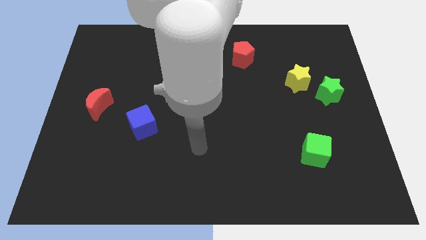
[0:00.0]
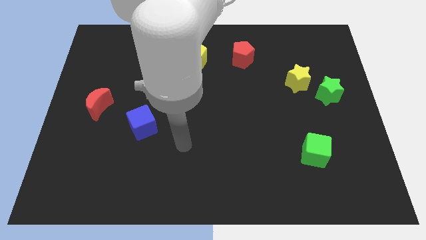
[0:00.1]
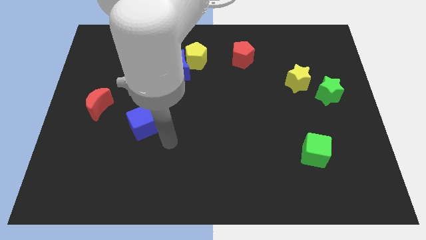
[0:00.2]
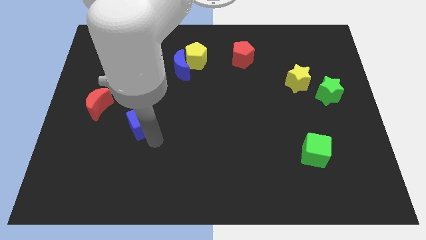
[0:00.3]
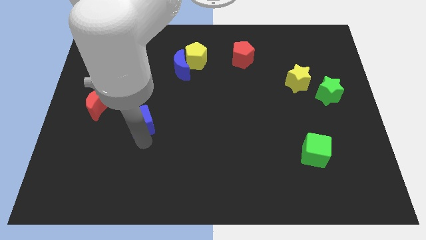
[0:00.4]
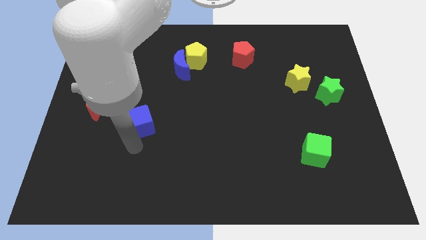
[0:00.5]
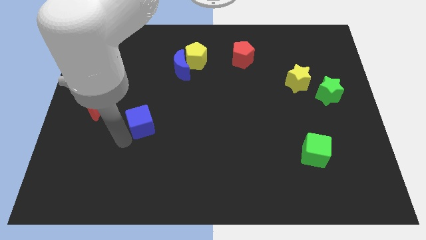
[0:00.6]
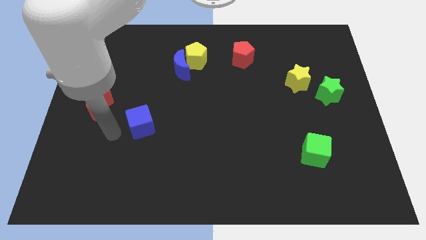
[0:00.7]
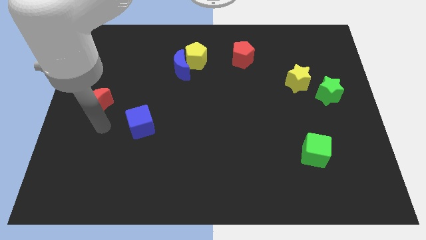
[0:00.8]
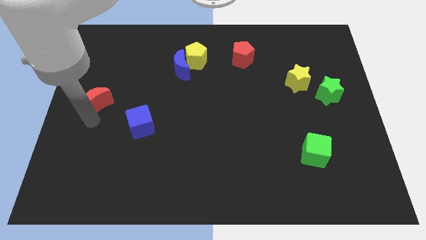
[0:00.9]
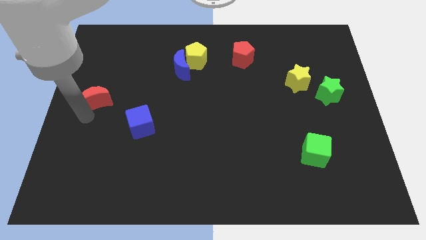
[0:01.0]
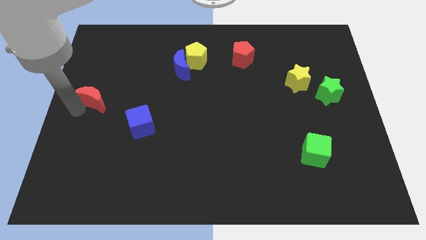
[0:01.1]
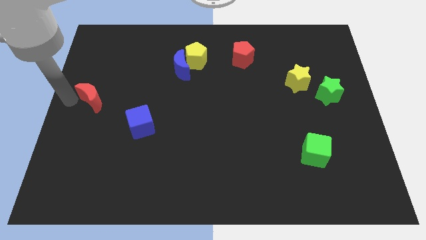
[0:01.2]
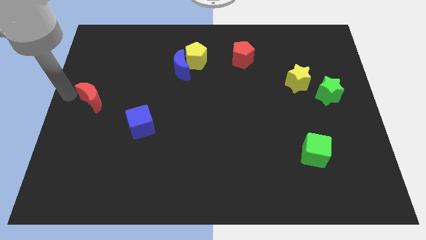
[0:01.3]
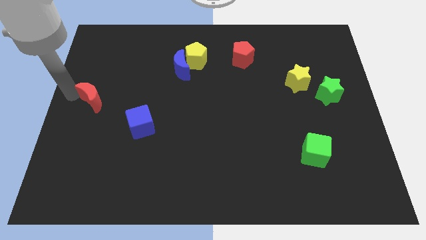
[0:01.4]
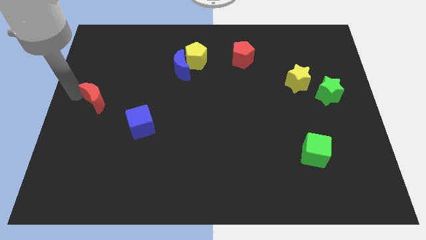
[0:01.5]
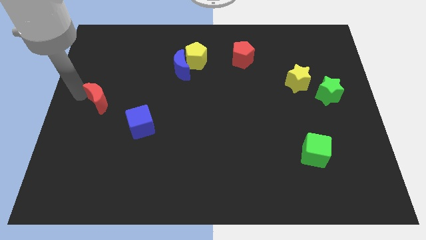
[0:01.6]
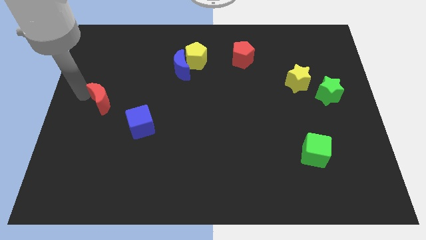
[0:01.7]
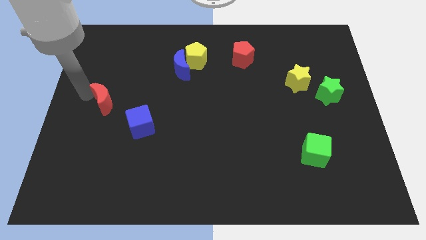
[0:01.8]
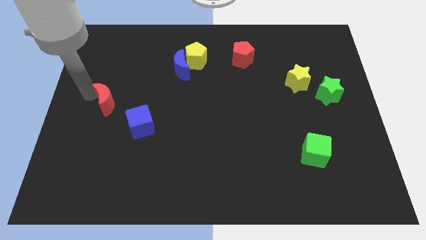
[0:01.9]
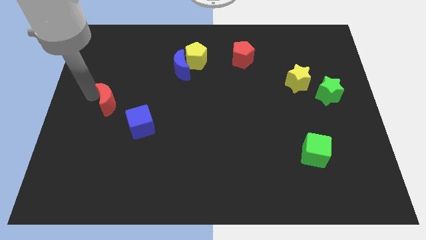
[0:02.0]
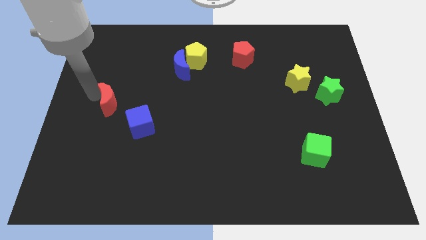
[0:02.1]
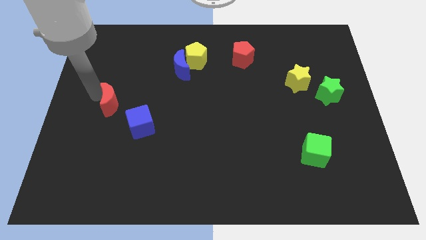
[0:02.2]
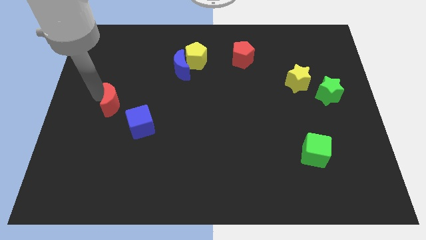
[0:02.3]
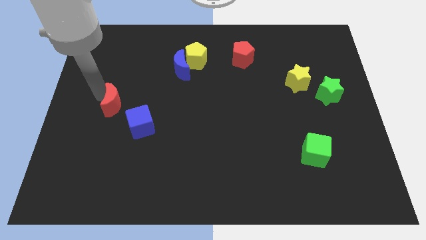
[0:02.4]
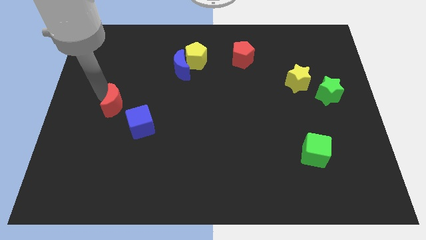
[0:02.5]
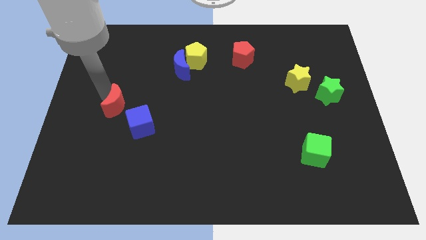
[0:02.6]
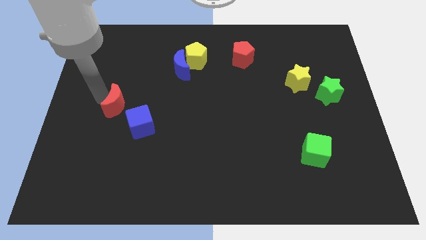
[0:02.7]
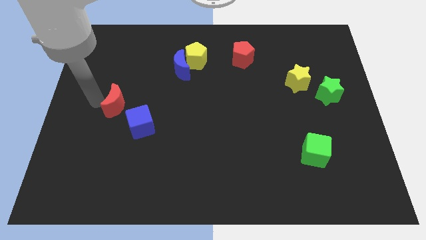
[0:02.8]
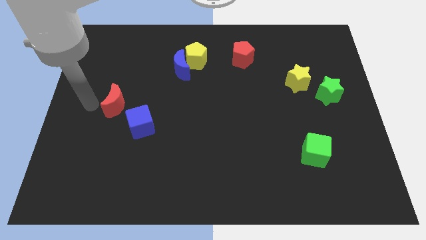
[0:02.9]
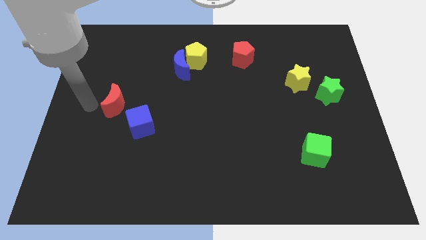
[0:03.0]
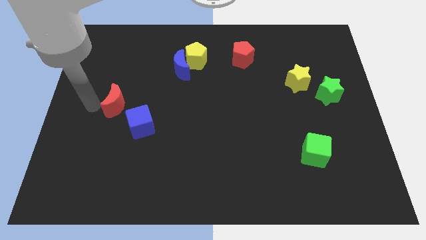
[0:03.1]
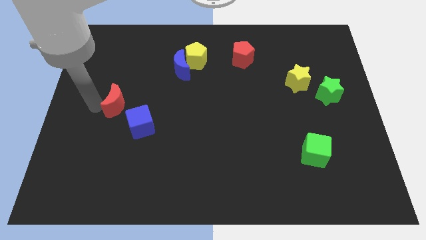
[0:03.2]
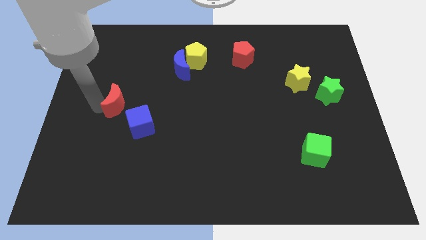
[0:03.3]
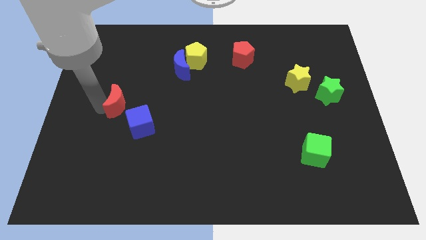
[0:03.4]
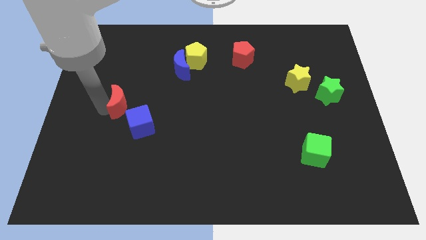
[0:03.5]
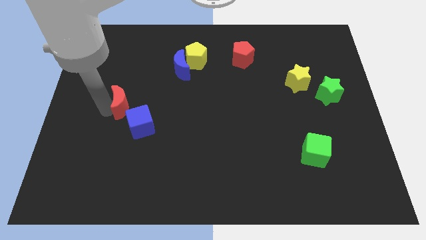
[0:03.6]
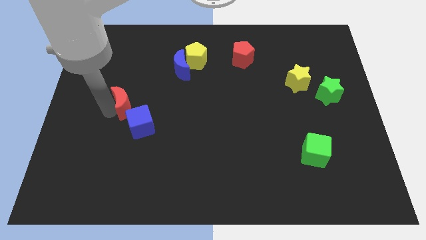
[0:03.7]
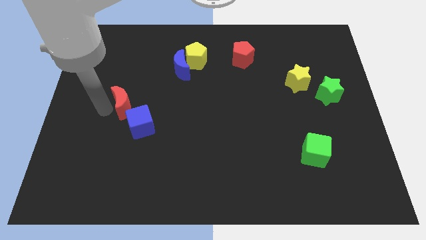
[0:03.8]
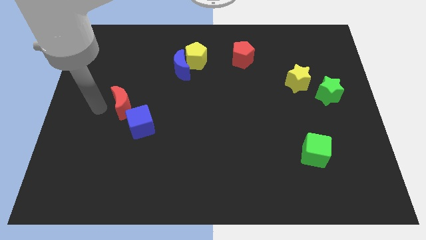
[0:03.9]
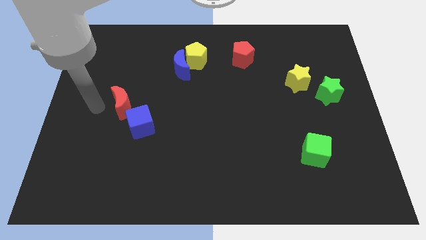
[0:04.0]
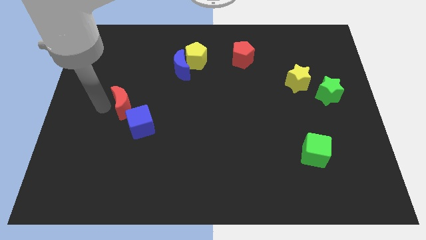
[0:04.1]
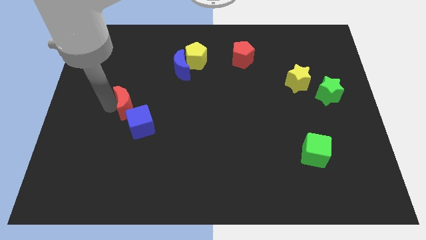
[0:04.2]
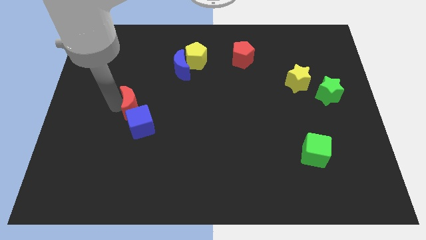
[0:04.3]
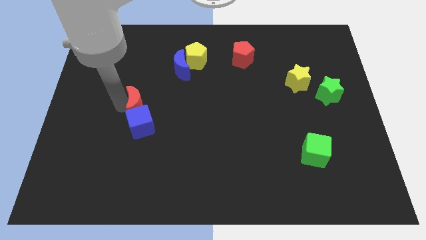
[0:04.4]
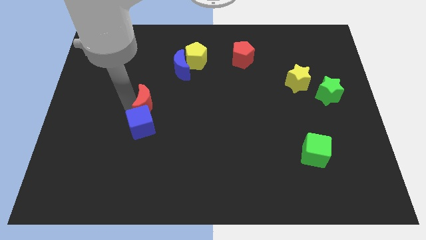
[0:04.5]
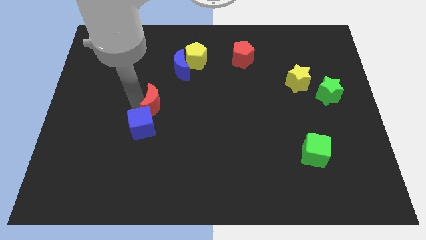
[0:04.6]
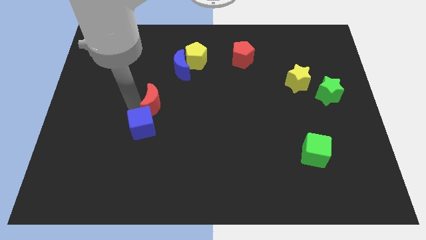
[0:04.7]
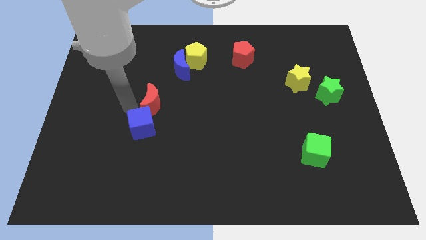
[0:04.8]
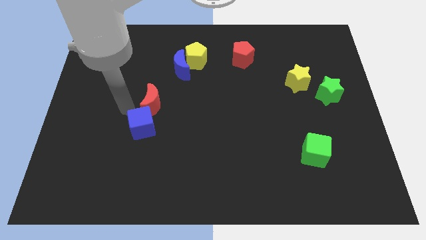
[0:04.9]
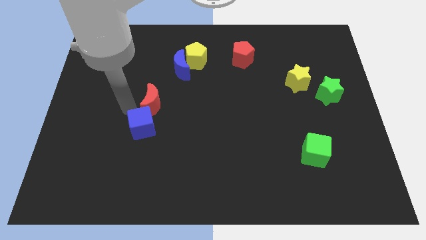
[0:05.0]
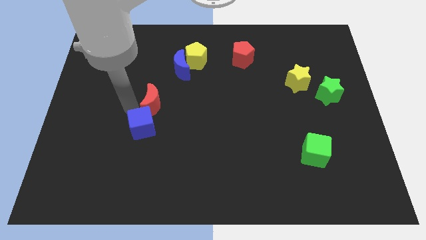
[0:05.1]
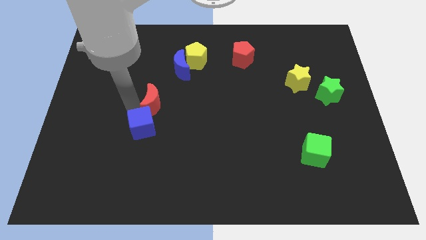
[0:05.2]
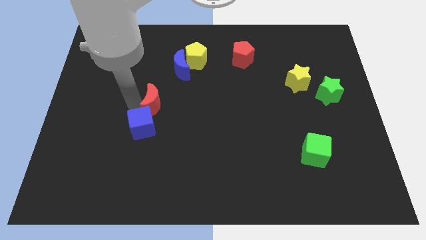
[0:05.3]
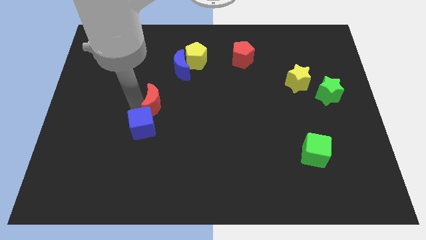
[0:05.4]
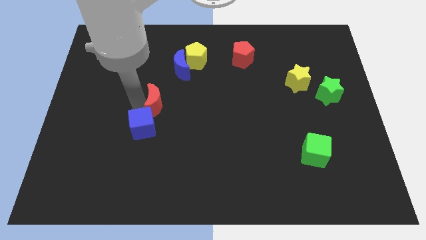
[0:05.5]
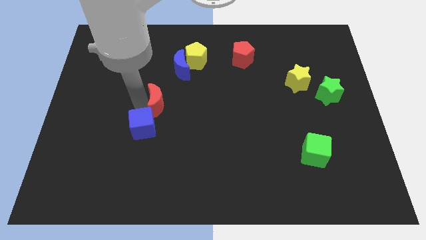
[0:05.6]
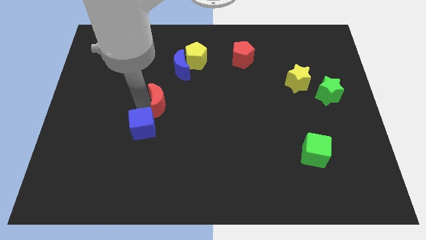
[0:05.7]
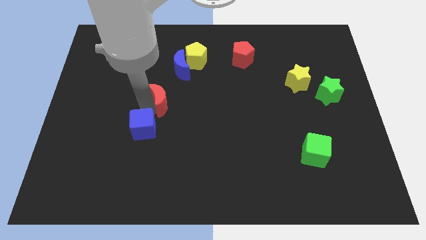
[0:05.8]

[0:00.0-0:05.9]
move the red moon to the center

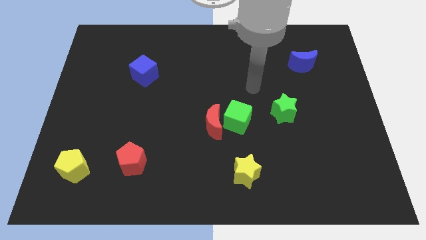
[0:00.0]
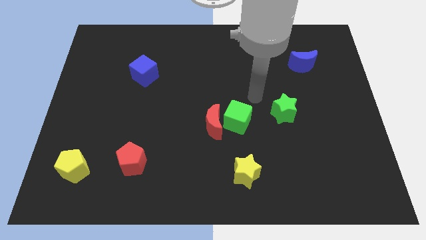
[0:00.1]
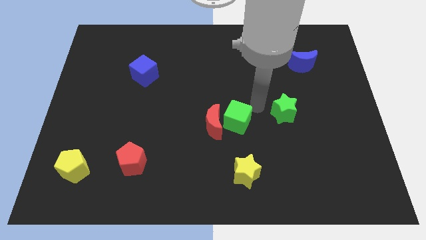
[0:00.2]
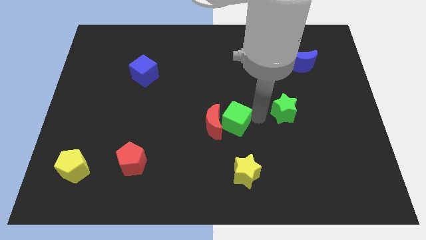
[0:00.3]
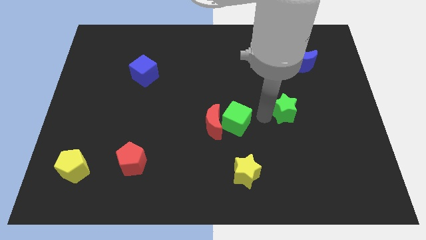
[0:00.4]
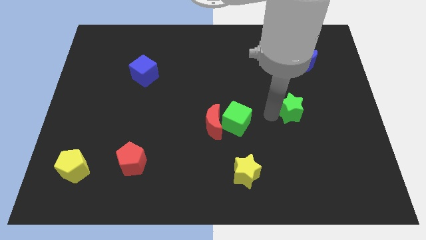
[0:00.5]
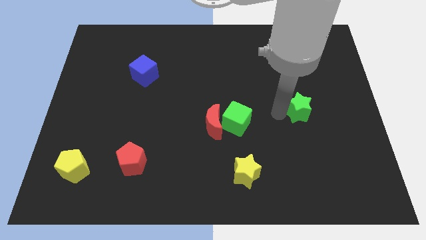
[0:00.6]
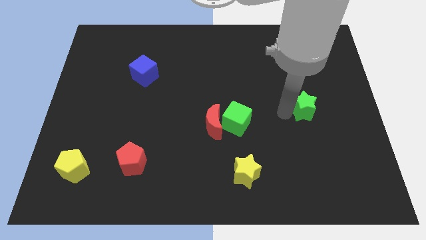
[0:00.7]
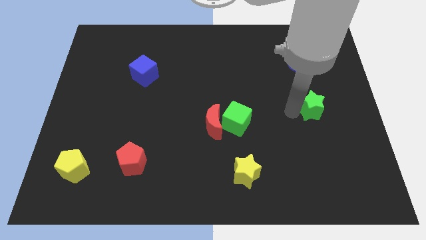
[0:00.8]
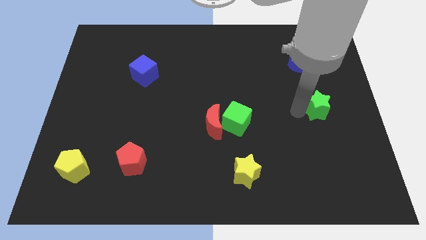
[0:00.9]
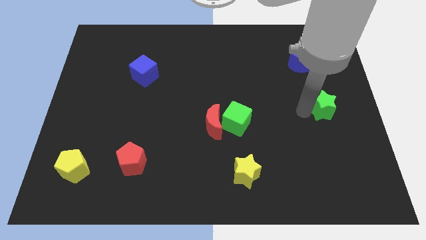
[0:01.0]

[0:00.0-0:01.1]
slide the green star to the right side
